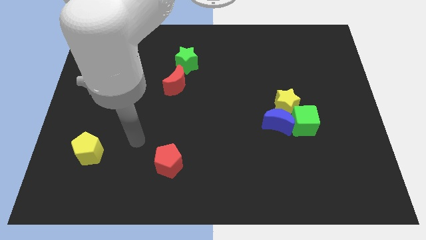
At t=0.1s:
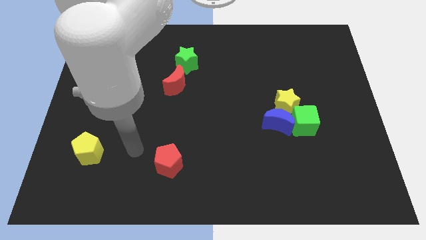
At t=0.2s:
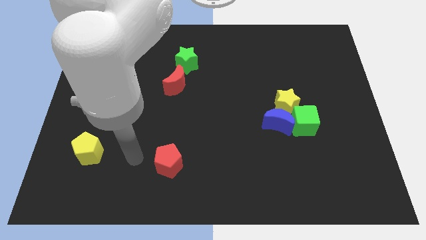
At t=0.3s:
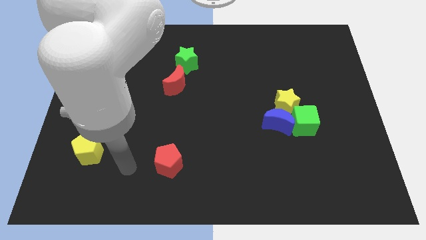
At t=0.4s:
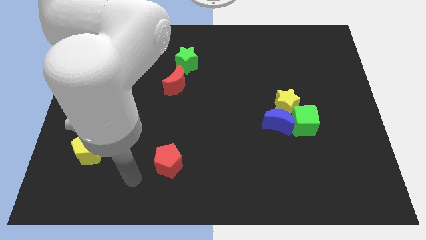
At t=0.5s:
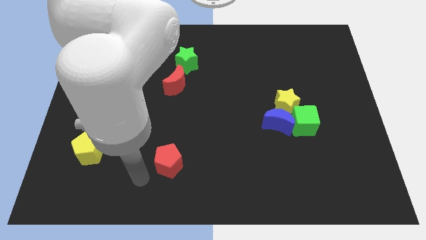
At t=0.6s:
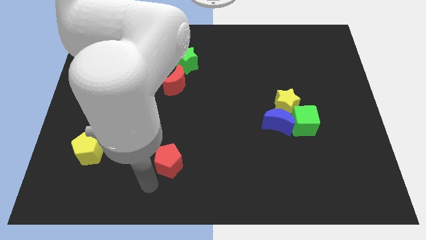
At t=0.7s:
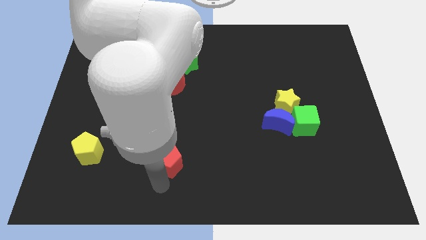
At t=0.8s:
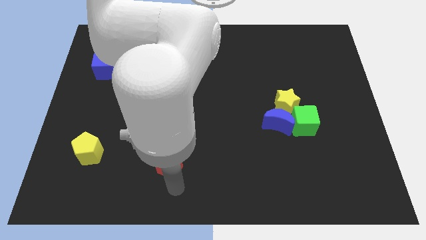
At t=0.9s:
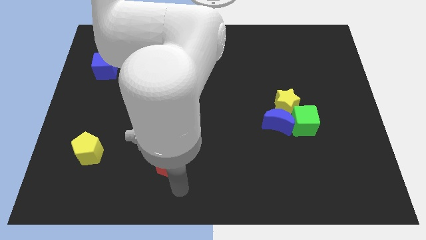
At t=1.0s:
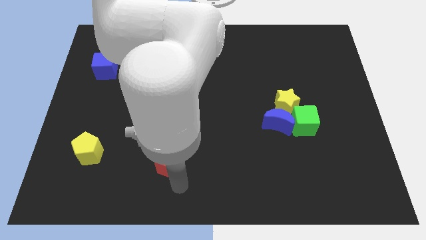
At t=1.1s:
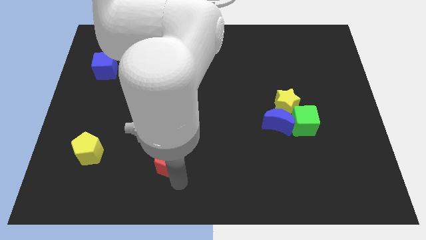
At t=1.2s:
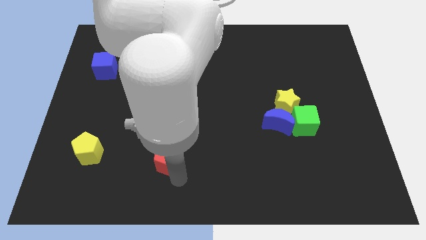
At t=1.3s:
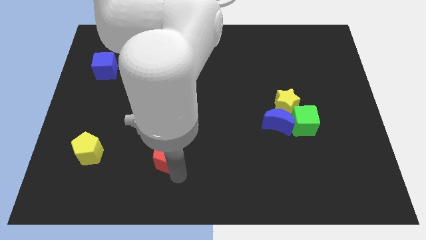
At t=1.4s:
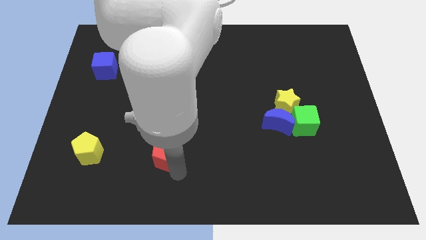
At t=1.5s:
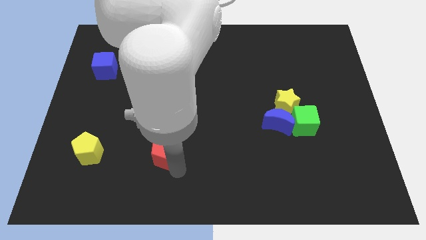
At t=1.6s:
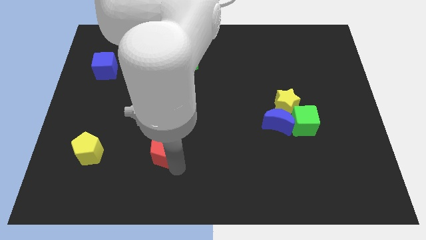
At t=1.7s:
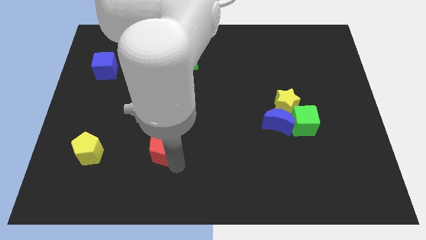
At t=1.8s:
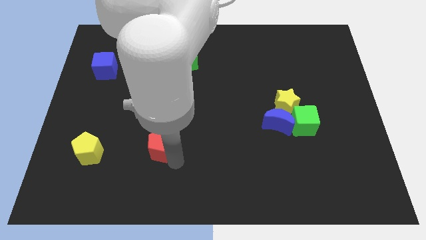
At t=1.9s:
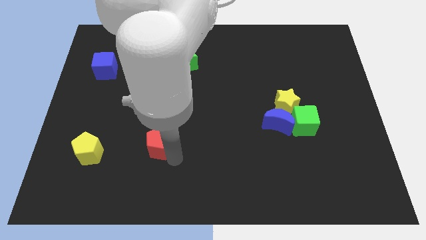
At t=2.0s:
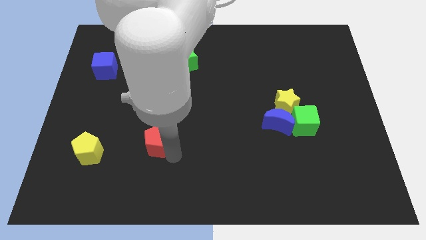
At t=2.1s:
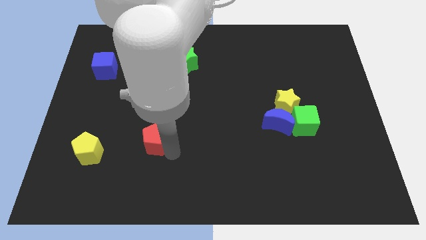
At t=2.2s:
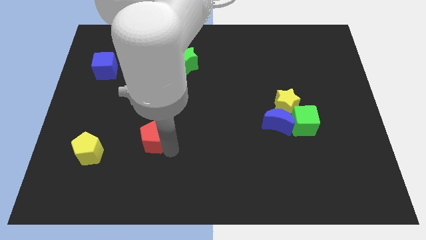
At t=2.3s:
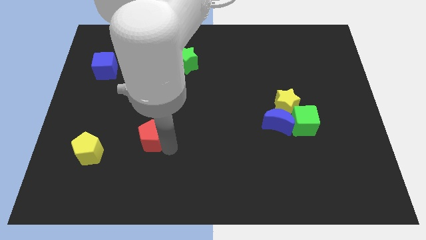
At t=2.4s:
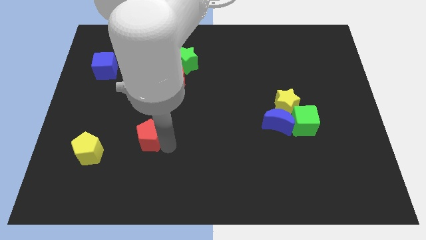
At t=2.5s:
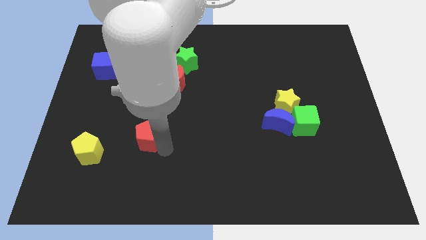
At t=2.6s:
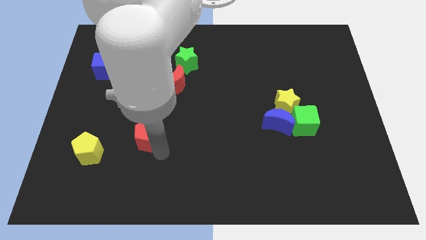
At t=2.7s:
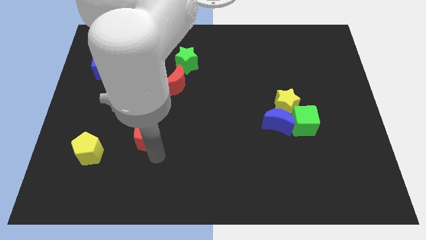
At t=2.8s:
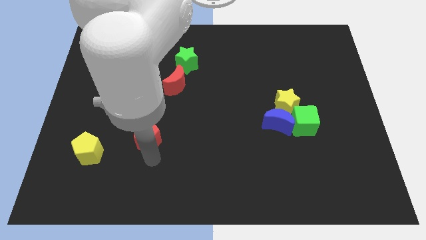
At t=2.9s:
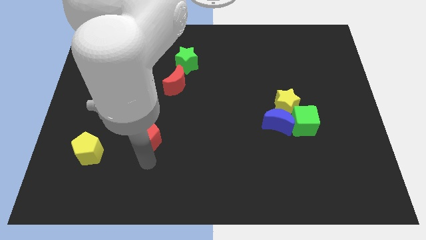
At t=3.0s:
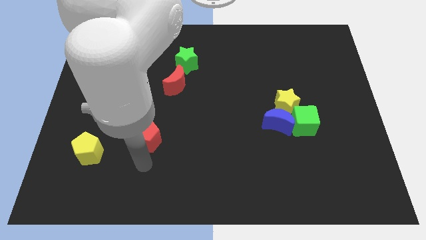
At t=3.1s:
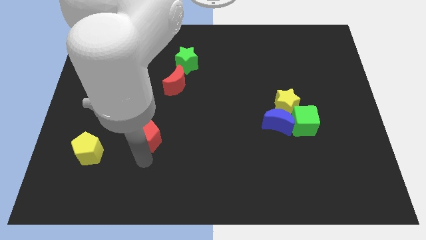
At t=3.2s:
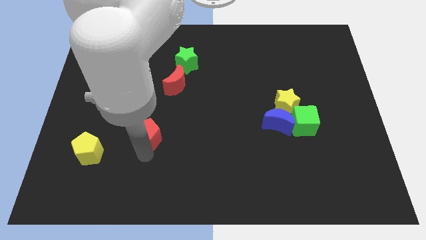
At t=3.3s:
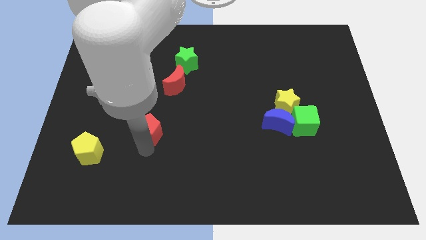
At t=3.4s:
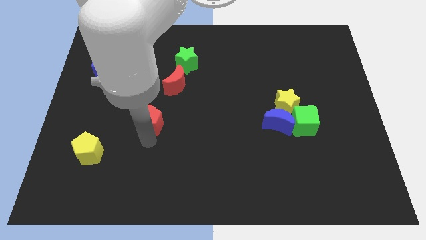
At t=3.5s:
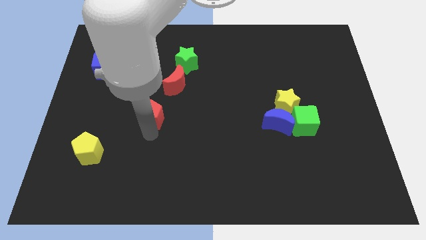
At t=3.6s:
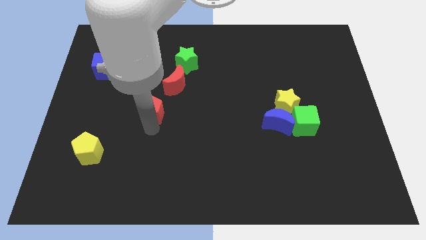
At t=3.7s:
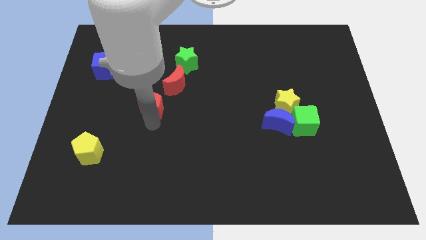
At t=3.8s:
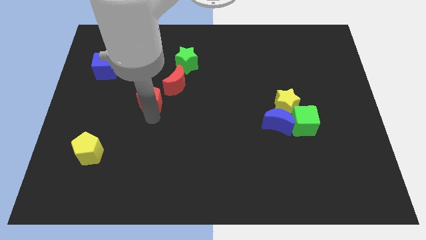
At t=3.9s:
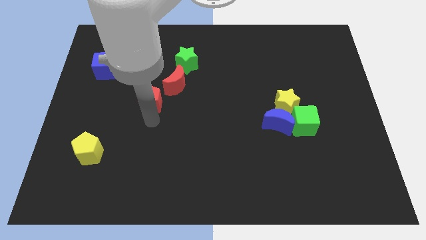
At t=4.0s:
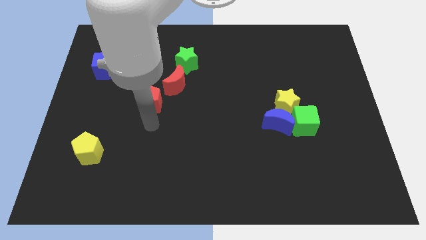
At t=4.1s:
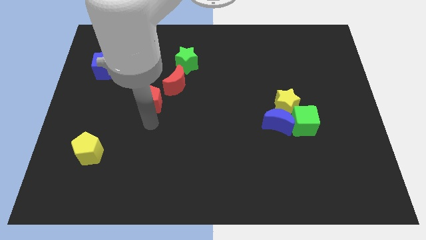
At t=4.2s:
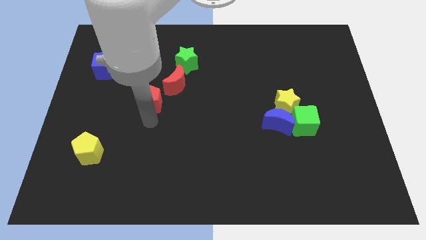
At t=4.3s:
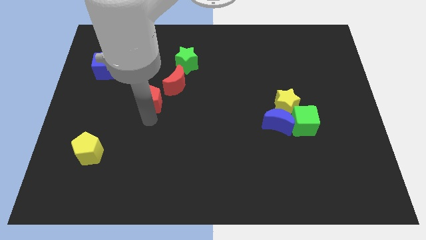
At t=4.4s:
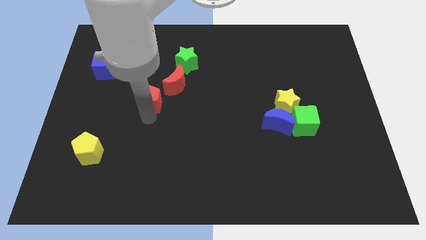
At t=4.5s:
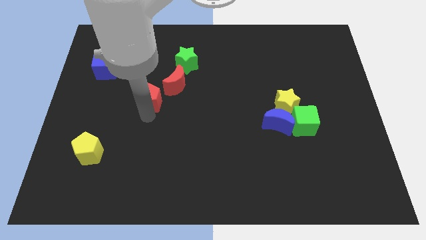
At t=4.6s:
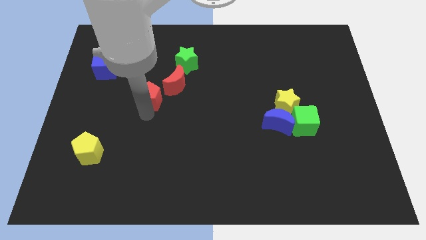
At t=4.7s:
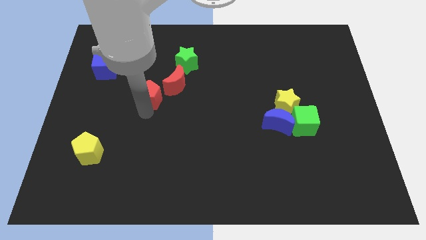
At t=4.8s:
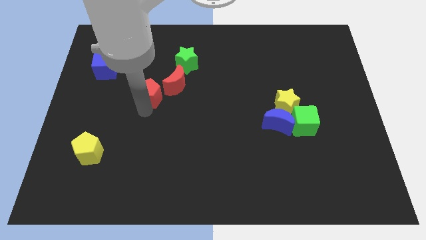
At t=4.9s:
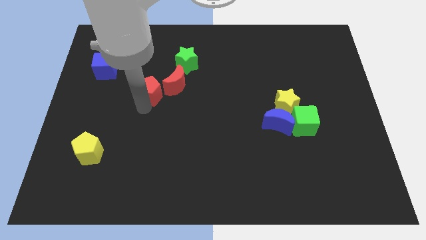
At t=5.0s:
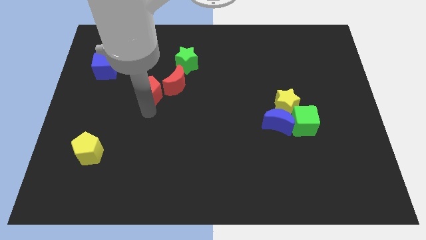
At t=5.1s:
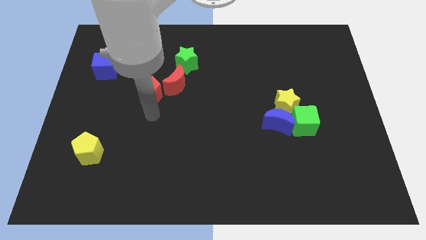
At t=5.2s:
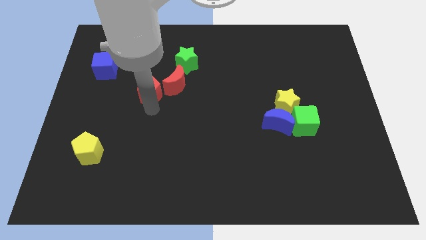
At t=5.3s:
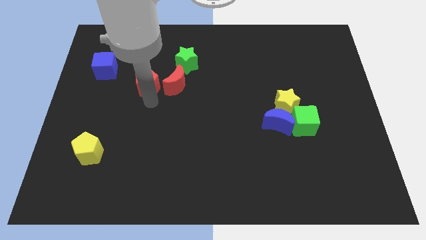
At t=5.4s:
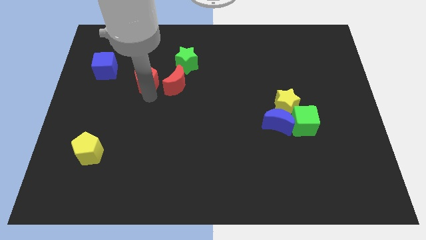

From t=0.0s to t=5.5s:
put the red pentagon right of the blue cube

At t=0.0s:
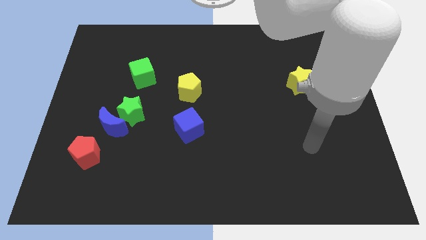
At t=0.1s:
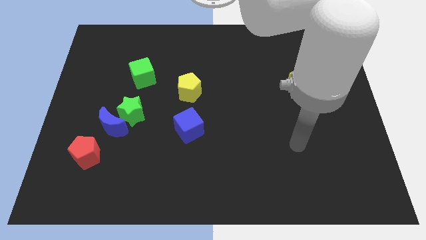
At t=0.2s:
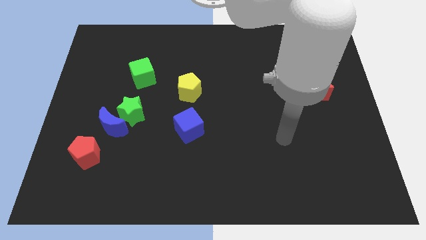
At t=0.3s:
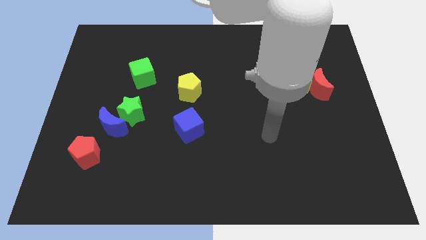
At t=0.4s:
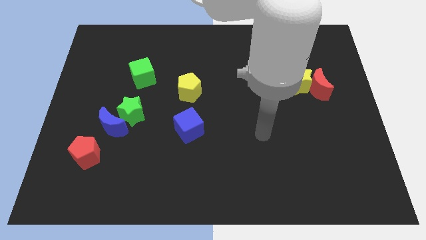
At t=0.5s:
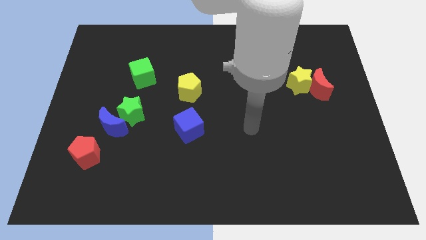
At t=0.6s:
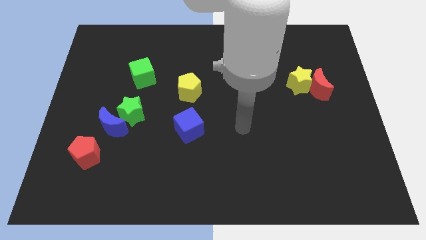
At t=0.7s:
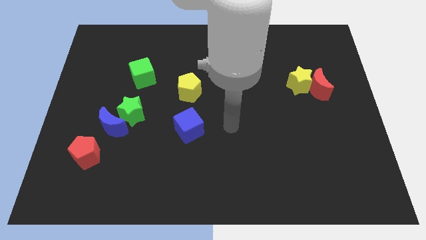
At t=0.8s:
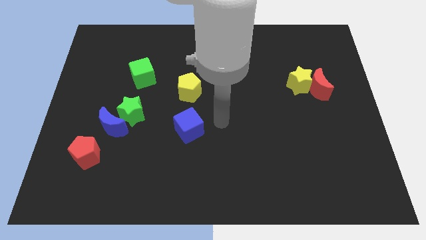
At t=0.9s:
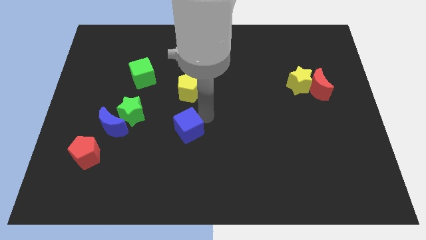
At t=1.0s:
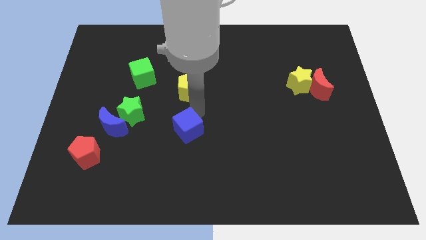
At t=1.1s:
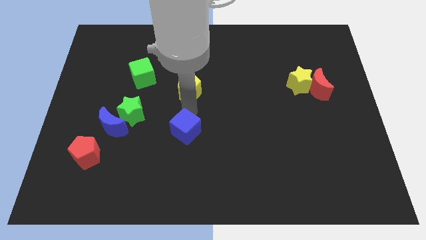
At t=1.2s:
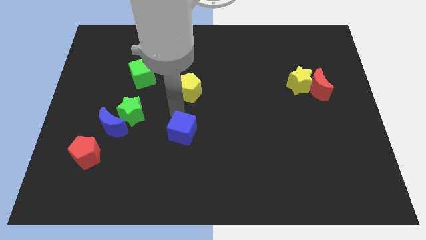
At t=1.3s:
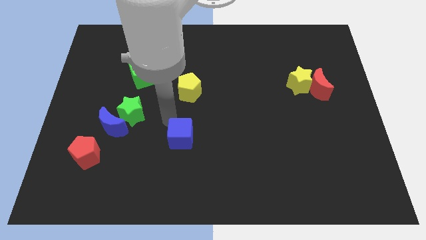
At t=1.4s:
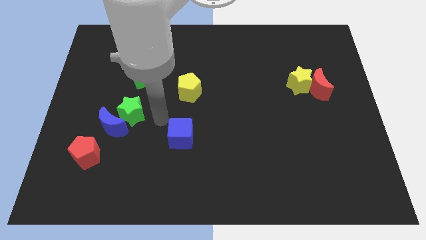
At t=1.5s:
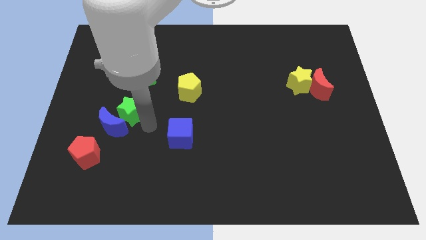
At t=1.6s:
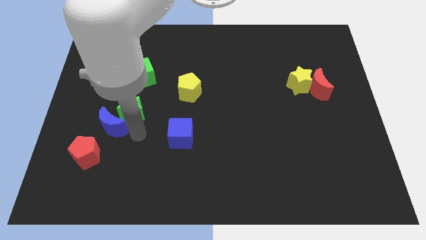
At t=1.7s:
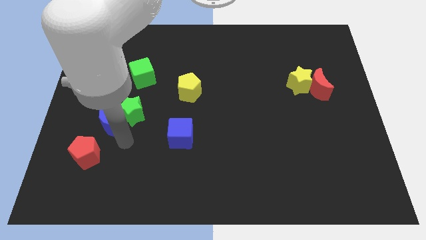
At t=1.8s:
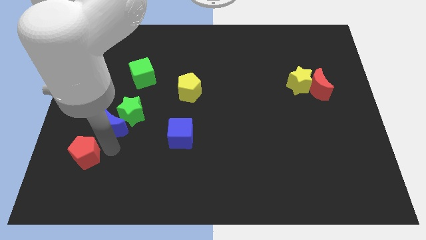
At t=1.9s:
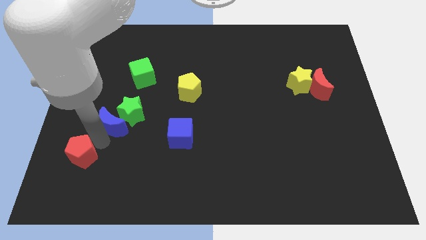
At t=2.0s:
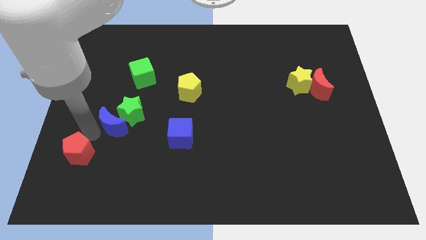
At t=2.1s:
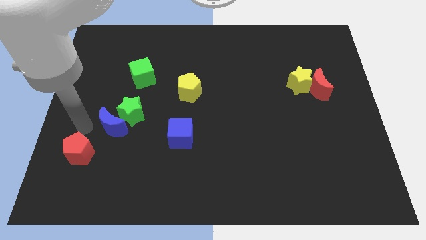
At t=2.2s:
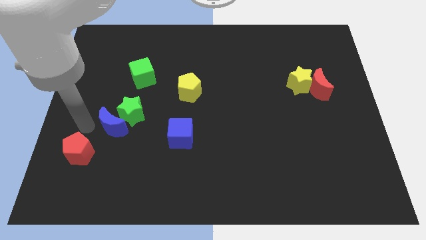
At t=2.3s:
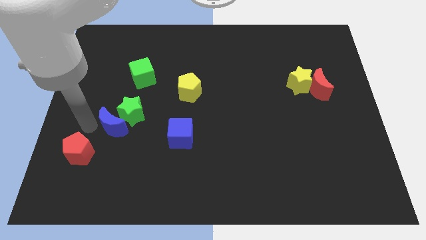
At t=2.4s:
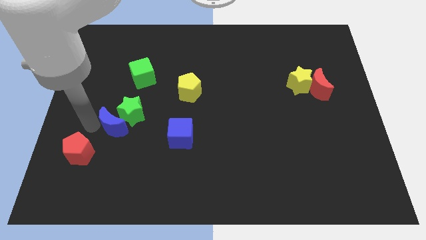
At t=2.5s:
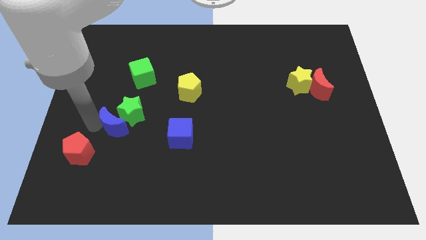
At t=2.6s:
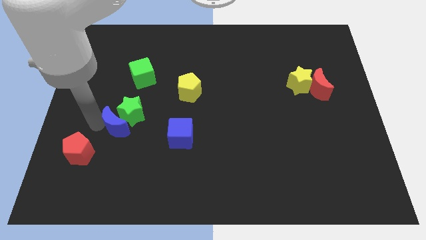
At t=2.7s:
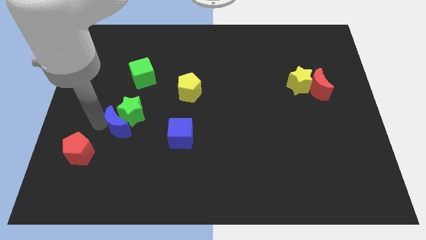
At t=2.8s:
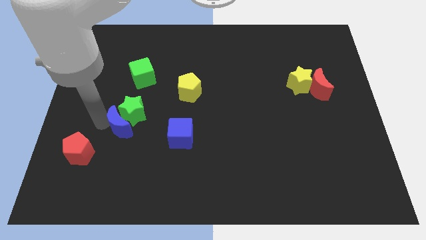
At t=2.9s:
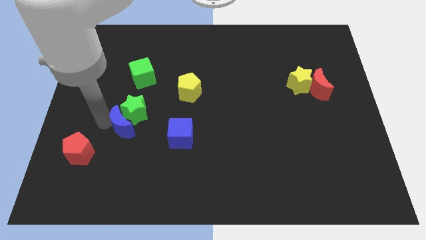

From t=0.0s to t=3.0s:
move the blue moon to the bottom side of the green cube
